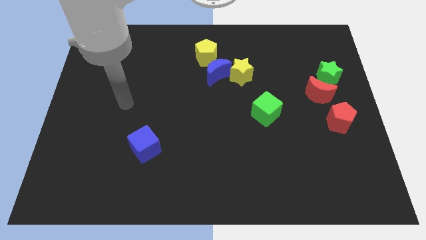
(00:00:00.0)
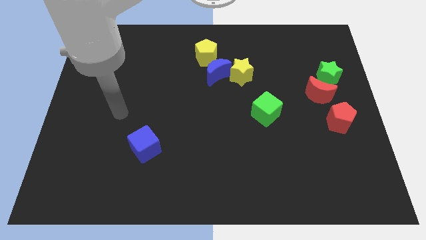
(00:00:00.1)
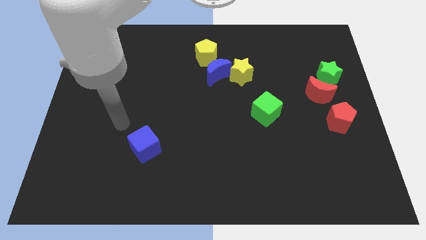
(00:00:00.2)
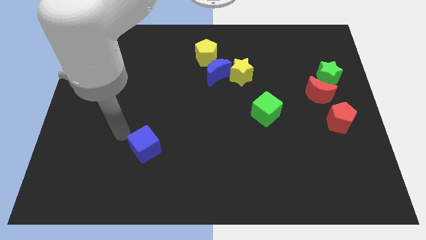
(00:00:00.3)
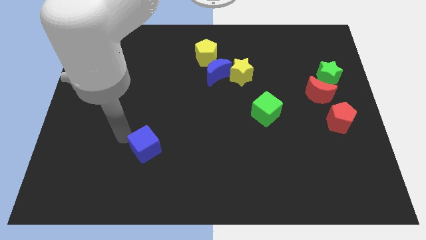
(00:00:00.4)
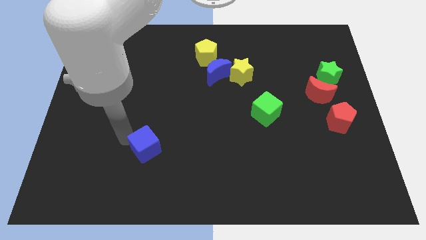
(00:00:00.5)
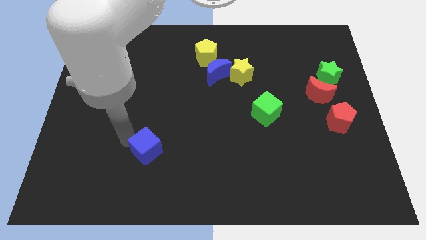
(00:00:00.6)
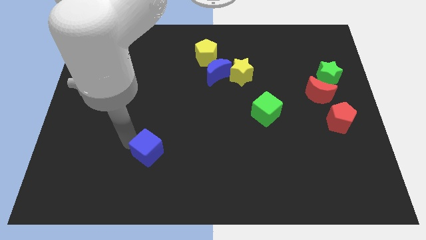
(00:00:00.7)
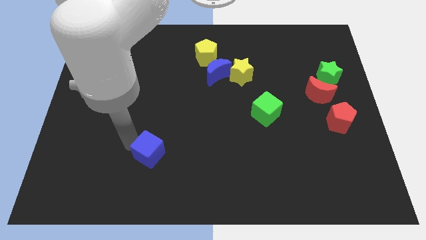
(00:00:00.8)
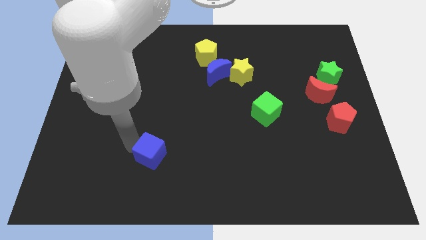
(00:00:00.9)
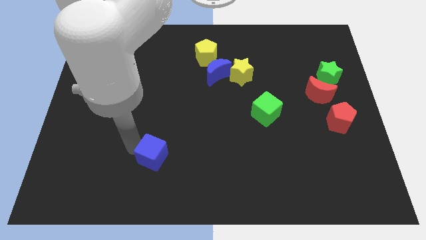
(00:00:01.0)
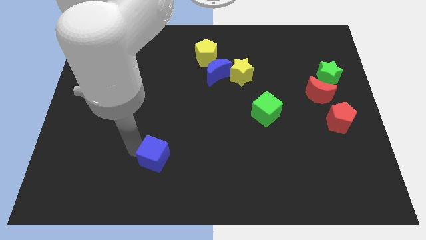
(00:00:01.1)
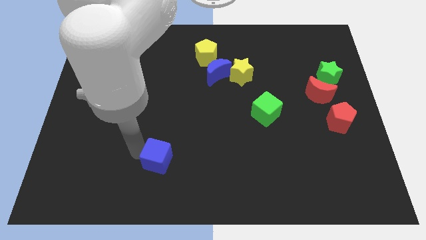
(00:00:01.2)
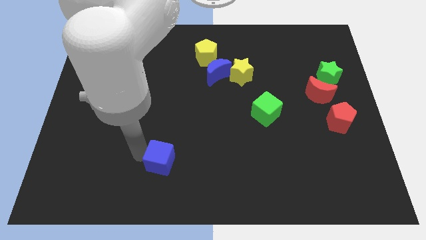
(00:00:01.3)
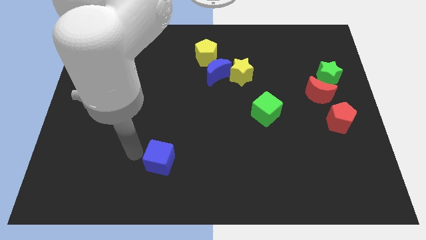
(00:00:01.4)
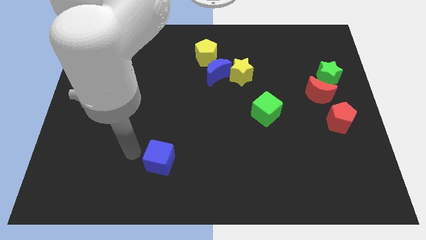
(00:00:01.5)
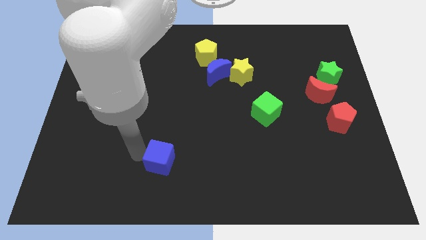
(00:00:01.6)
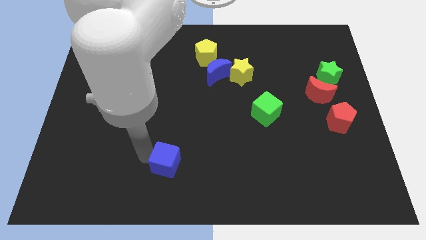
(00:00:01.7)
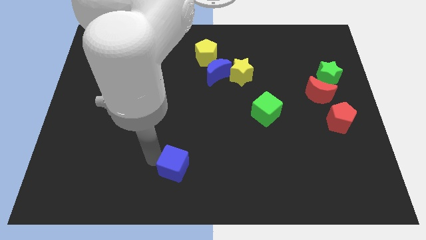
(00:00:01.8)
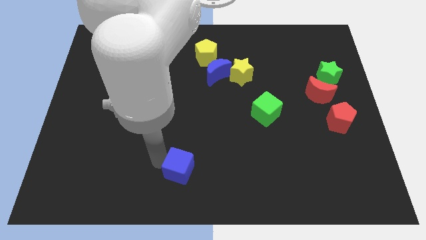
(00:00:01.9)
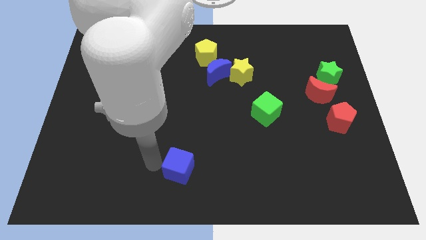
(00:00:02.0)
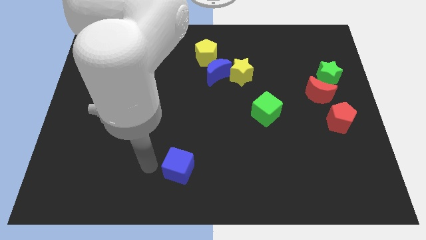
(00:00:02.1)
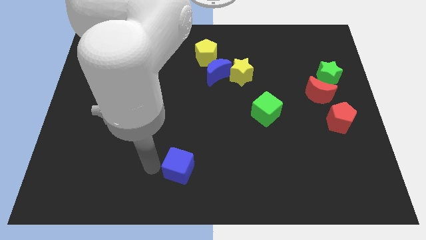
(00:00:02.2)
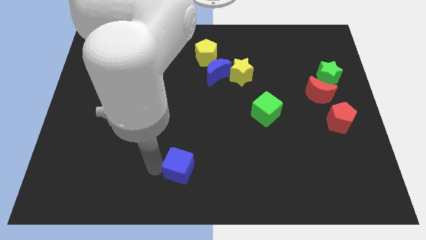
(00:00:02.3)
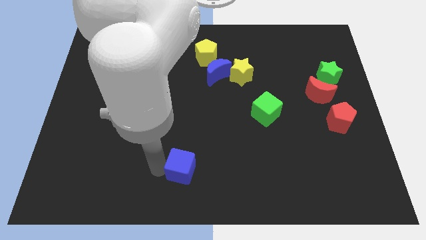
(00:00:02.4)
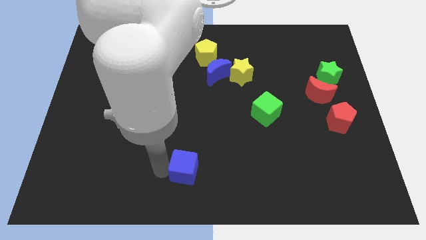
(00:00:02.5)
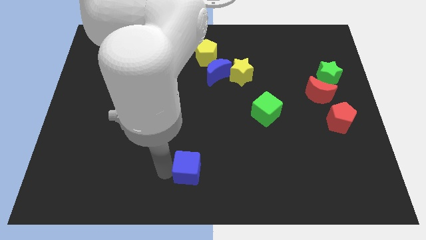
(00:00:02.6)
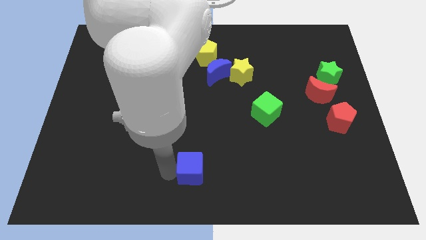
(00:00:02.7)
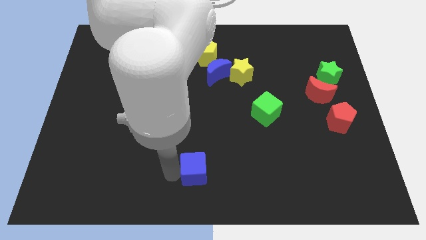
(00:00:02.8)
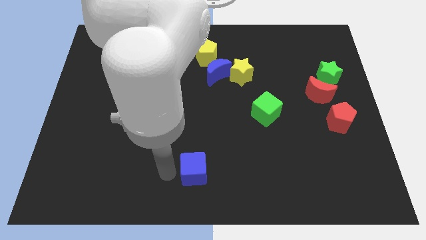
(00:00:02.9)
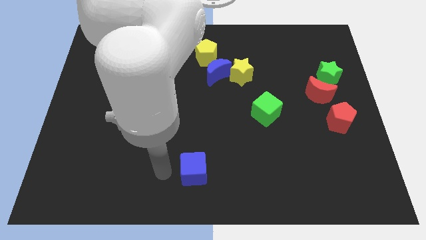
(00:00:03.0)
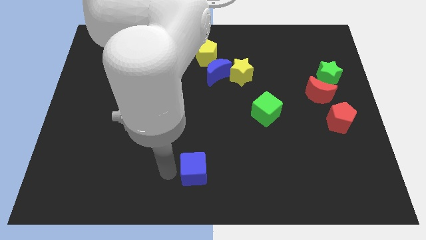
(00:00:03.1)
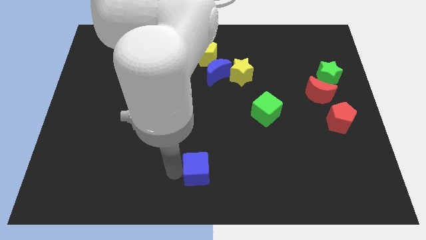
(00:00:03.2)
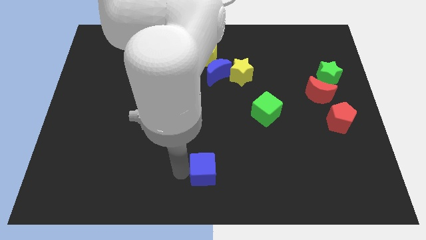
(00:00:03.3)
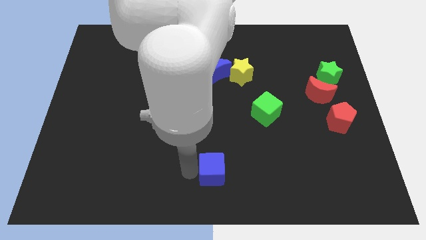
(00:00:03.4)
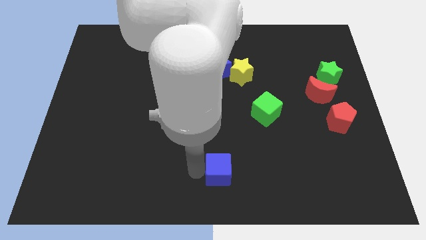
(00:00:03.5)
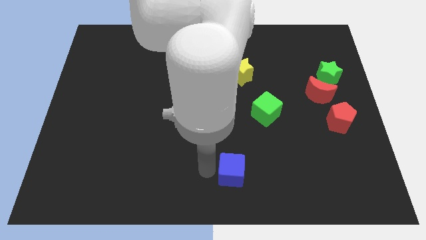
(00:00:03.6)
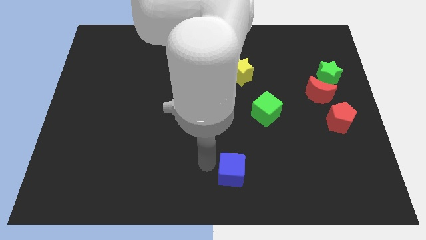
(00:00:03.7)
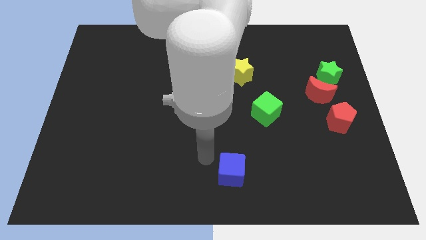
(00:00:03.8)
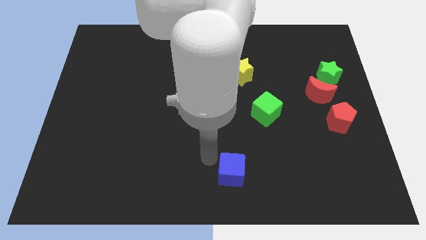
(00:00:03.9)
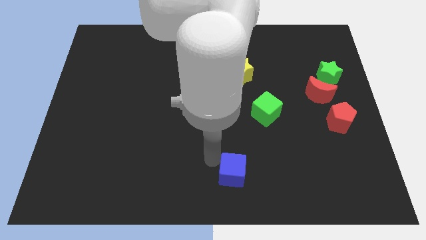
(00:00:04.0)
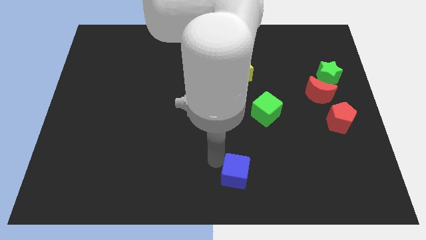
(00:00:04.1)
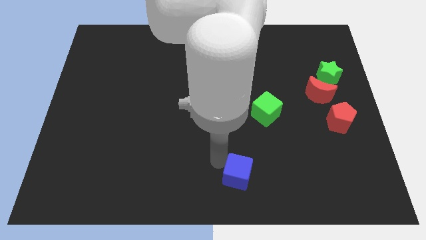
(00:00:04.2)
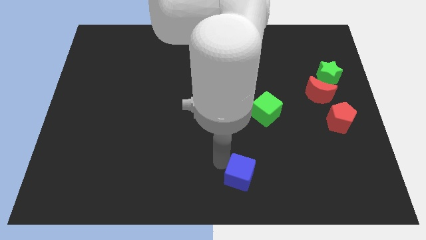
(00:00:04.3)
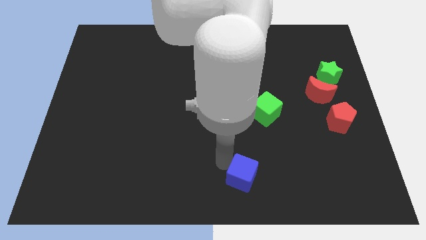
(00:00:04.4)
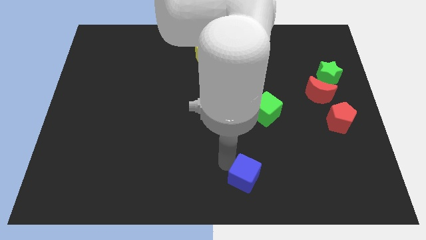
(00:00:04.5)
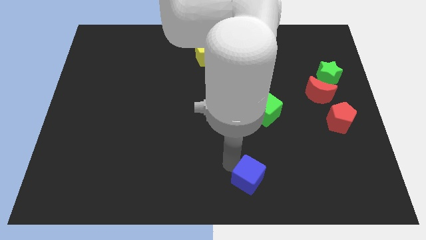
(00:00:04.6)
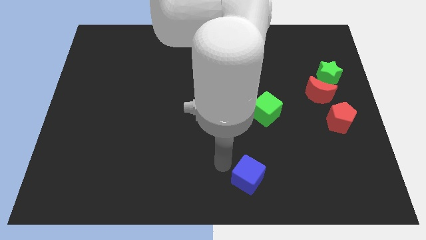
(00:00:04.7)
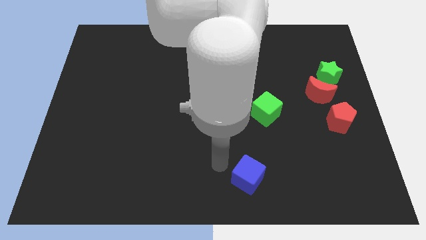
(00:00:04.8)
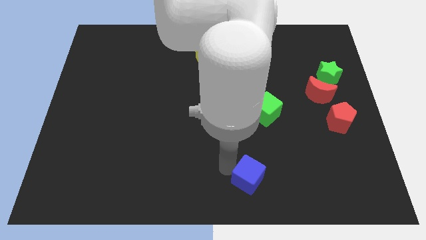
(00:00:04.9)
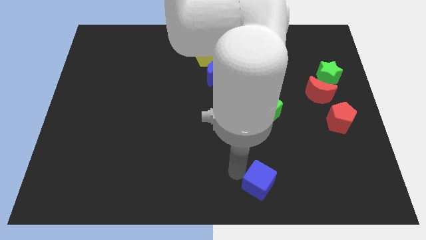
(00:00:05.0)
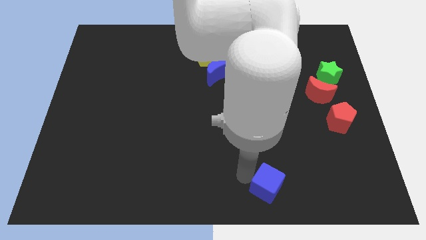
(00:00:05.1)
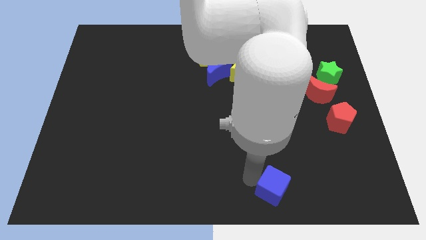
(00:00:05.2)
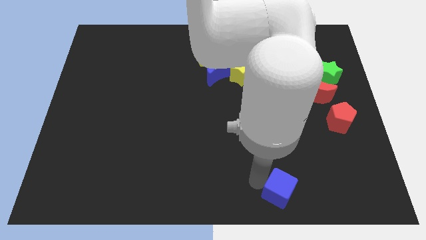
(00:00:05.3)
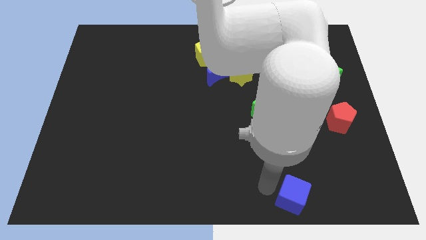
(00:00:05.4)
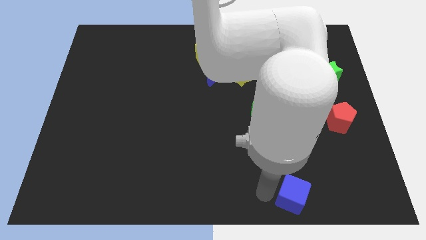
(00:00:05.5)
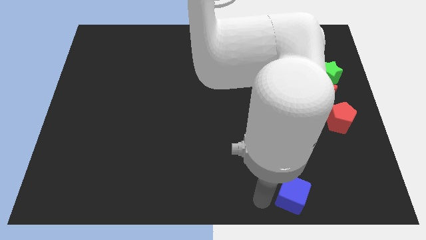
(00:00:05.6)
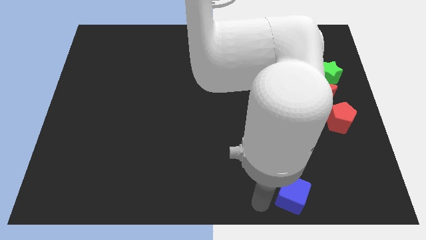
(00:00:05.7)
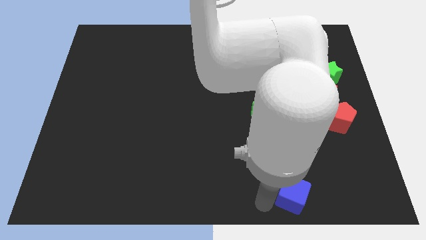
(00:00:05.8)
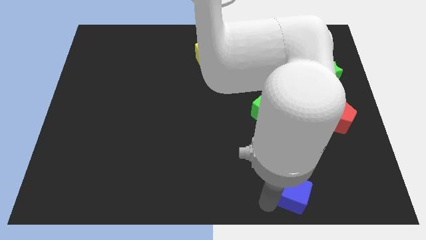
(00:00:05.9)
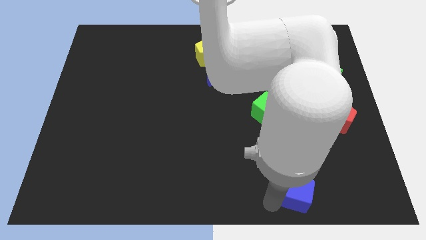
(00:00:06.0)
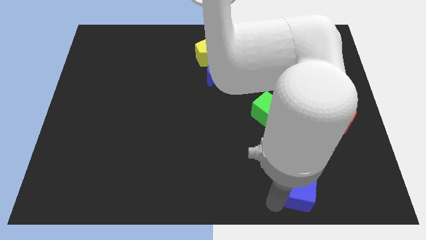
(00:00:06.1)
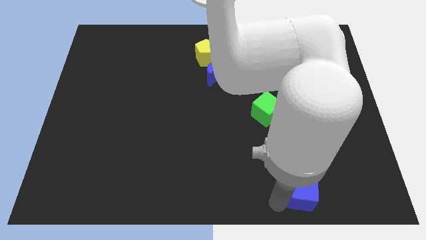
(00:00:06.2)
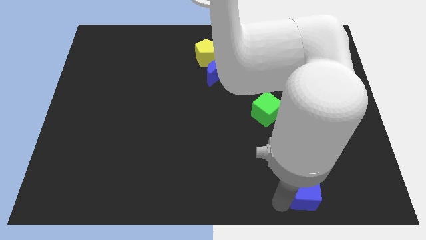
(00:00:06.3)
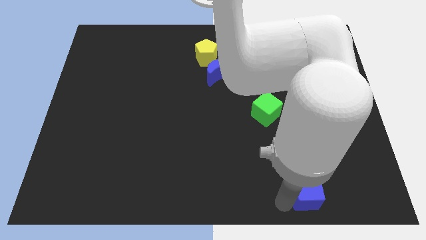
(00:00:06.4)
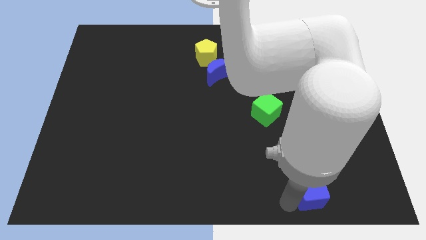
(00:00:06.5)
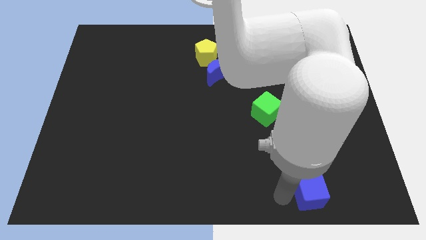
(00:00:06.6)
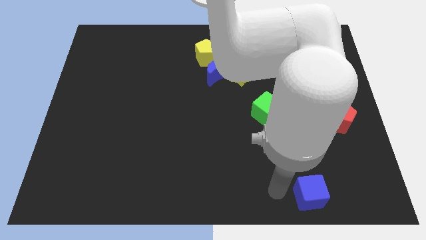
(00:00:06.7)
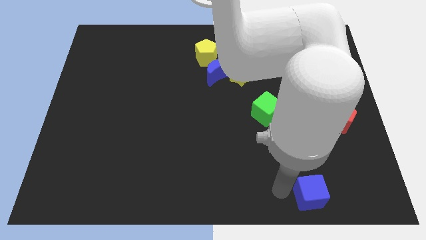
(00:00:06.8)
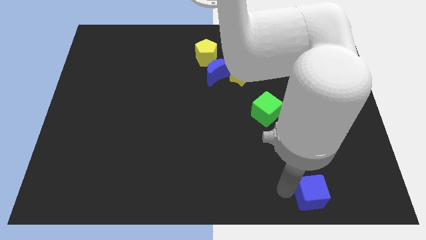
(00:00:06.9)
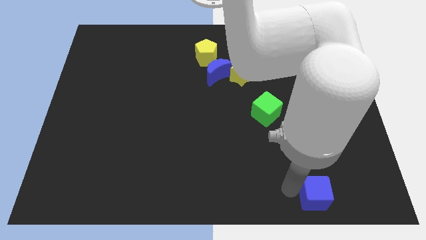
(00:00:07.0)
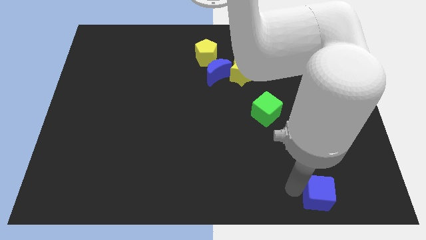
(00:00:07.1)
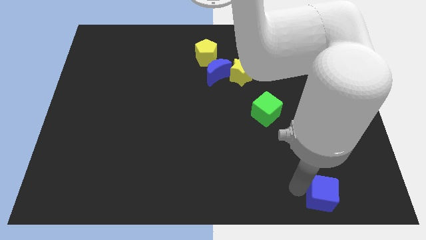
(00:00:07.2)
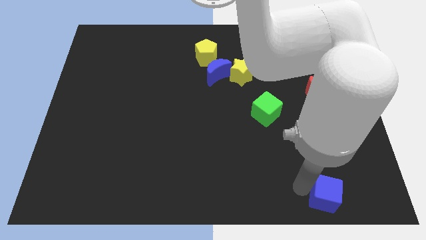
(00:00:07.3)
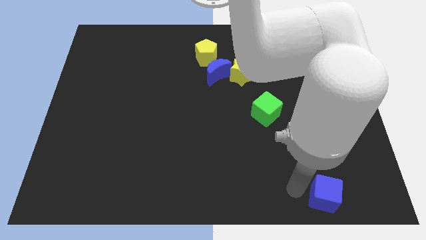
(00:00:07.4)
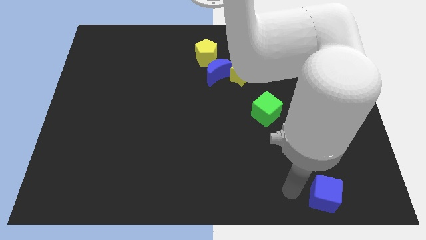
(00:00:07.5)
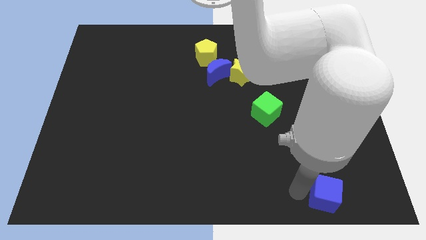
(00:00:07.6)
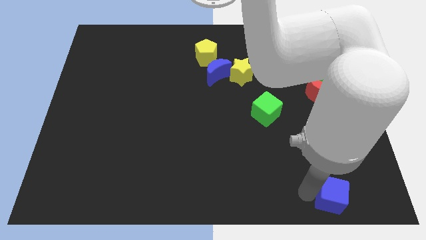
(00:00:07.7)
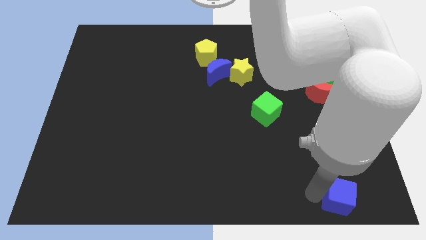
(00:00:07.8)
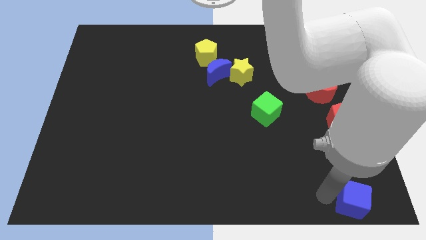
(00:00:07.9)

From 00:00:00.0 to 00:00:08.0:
put the blue cube to the bottom right
